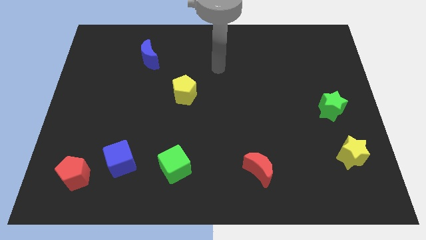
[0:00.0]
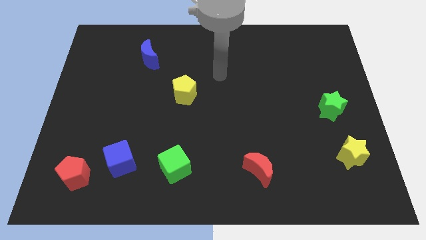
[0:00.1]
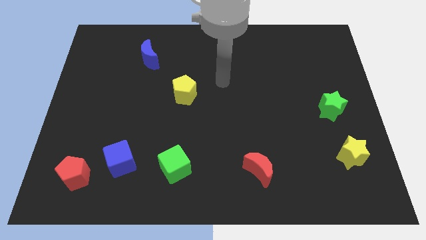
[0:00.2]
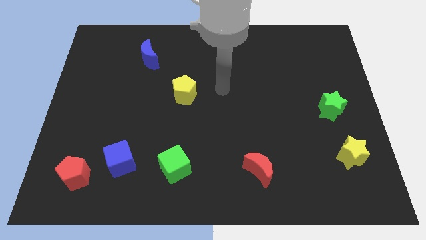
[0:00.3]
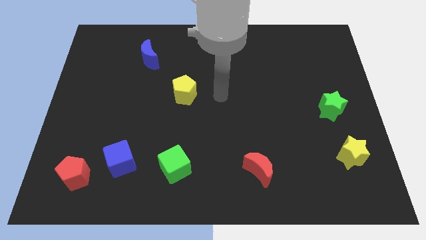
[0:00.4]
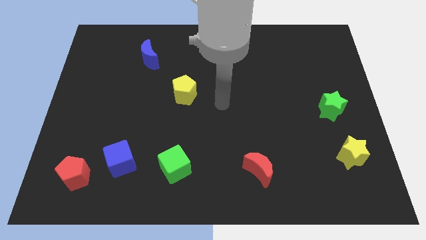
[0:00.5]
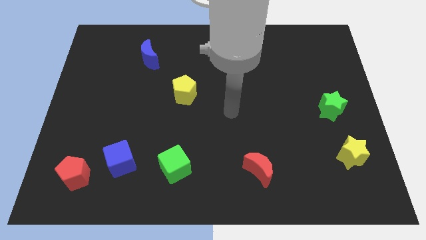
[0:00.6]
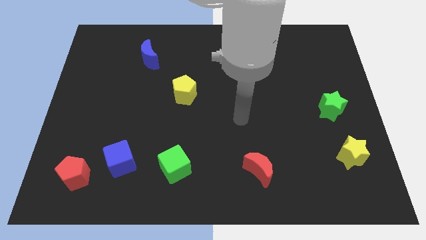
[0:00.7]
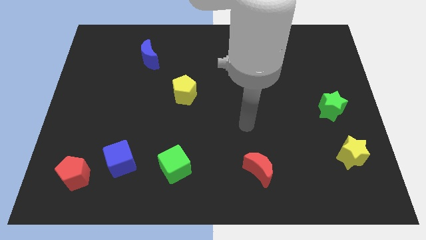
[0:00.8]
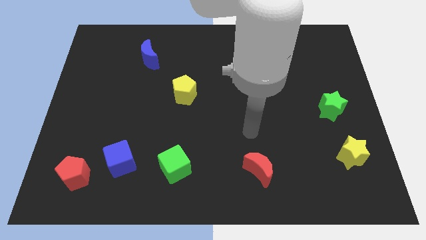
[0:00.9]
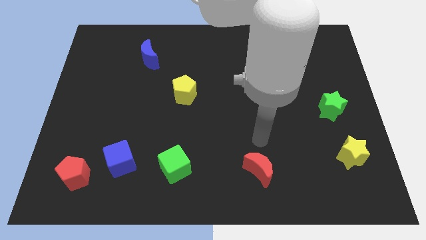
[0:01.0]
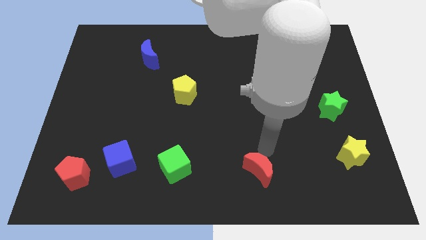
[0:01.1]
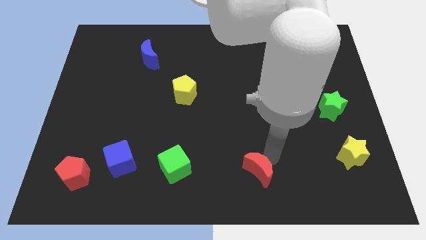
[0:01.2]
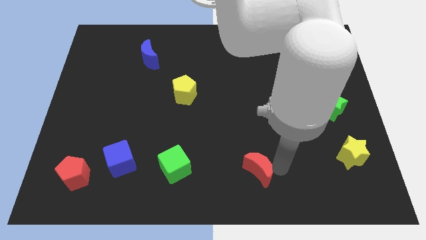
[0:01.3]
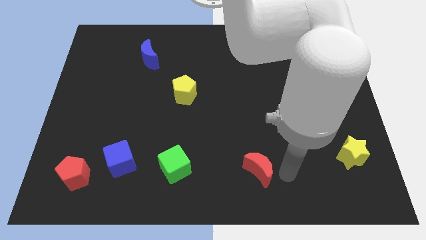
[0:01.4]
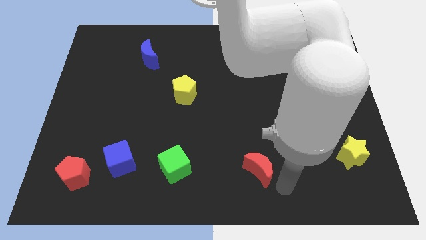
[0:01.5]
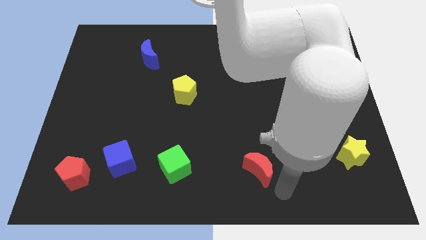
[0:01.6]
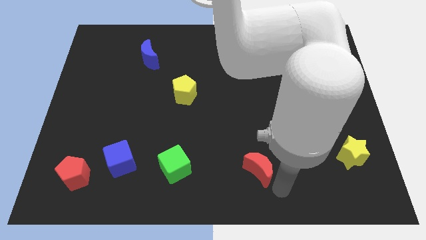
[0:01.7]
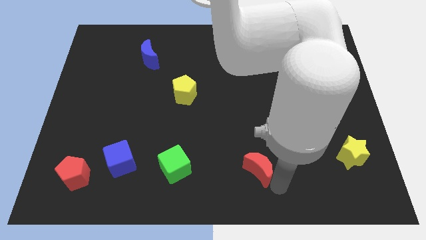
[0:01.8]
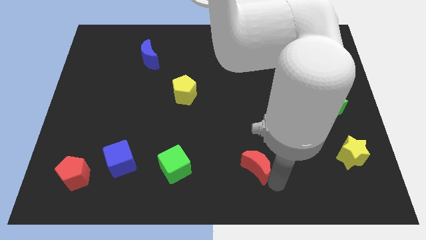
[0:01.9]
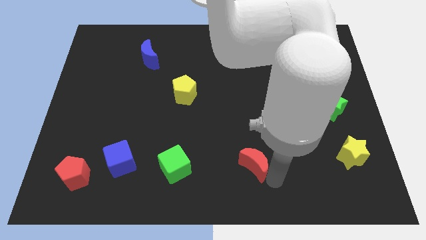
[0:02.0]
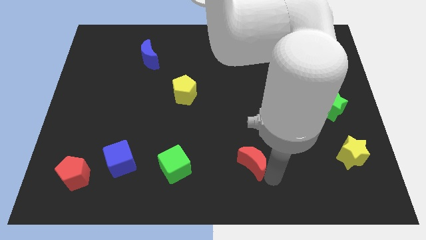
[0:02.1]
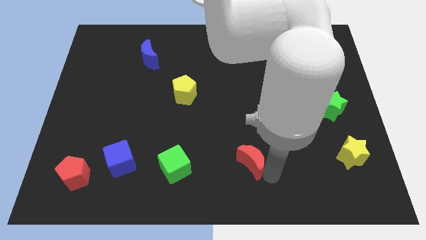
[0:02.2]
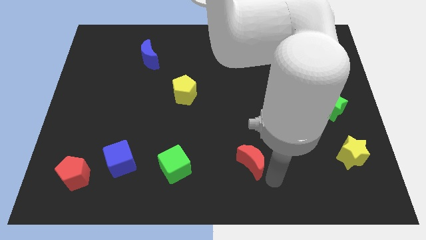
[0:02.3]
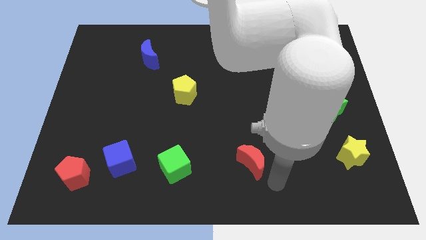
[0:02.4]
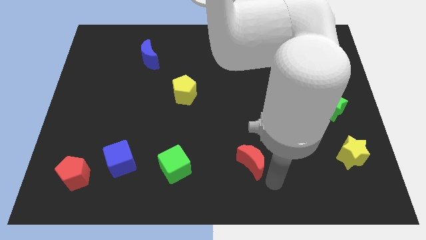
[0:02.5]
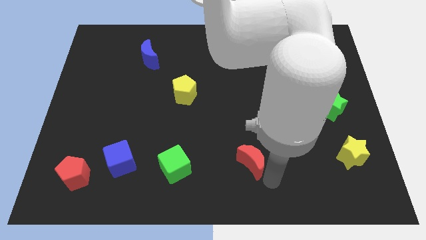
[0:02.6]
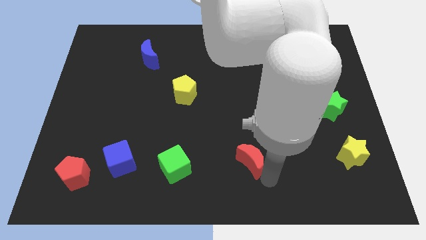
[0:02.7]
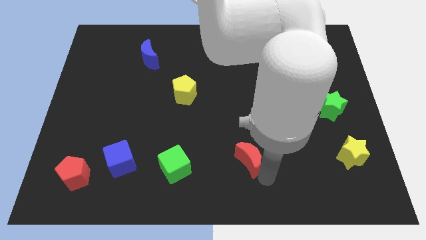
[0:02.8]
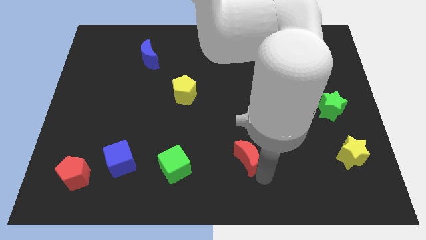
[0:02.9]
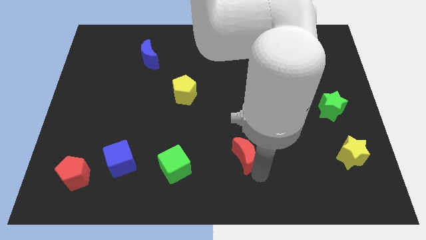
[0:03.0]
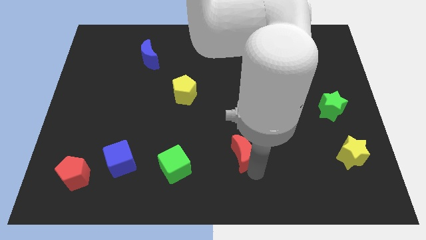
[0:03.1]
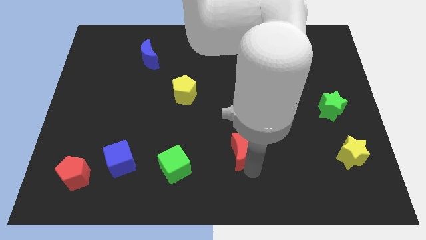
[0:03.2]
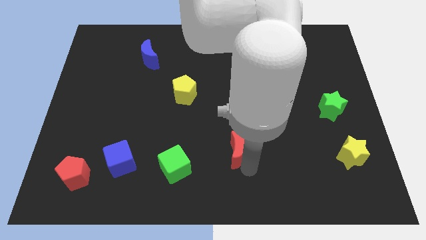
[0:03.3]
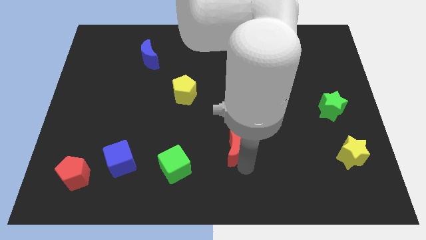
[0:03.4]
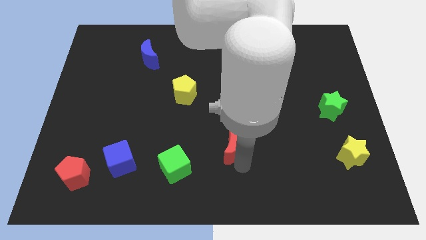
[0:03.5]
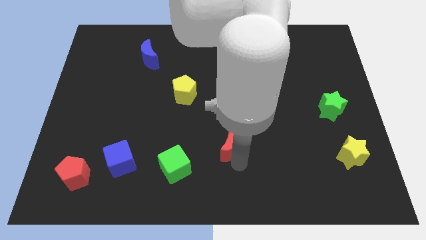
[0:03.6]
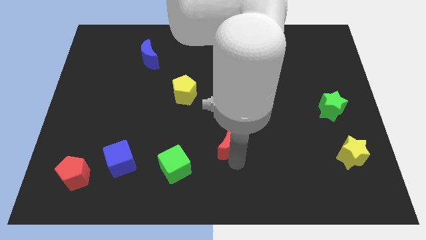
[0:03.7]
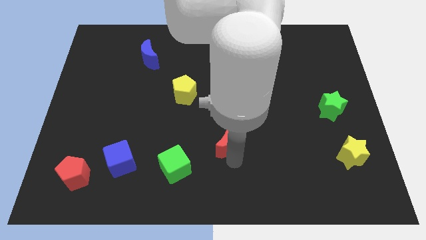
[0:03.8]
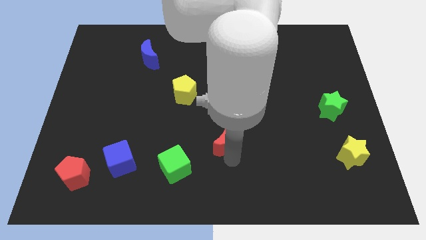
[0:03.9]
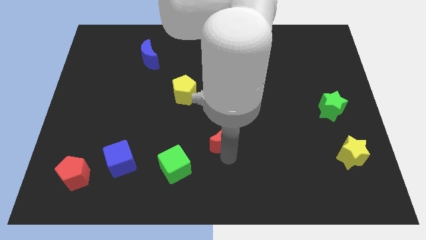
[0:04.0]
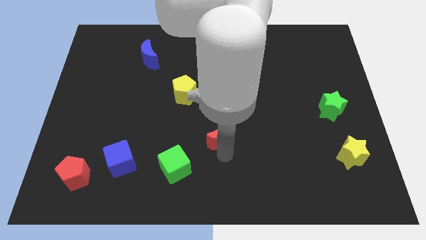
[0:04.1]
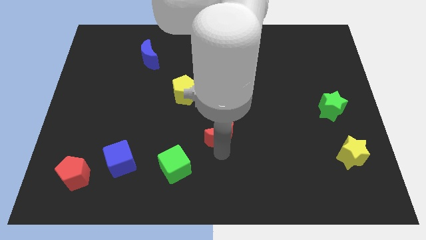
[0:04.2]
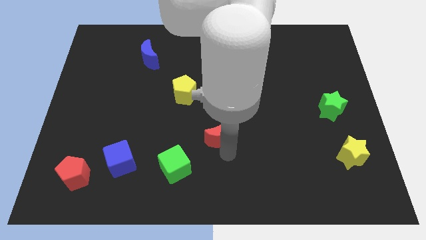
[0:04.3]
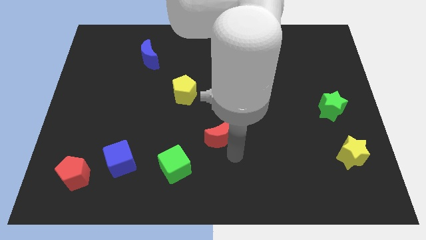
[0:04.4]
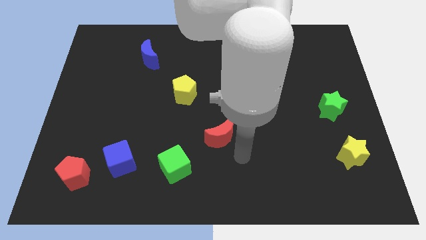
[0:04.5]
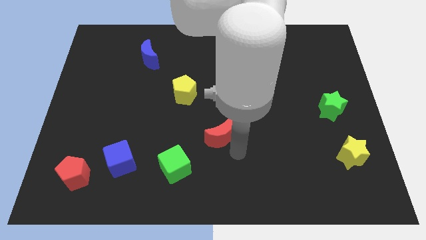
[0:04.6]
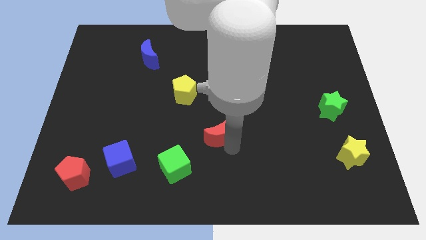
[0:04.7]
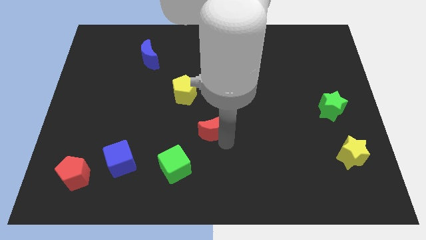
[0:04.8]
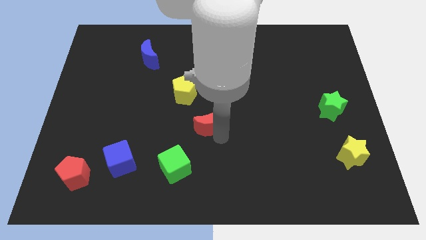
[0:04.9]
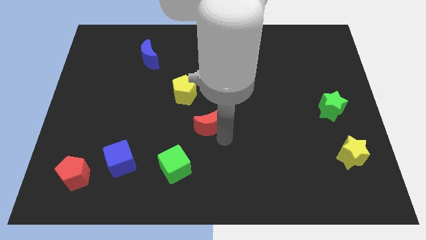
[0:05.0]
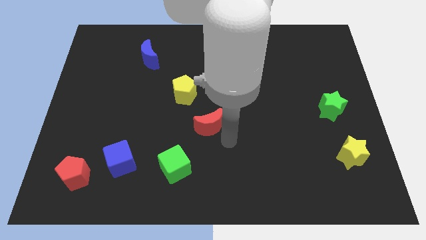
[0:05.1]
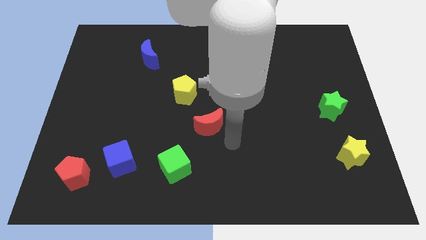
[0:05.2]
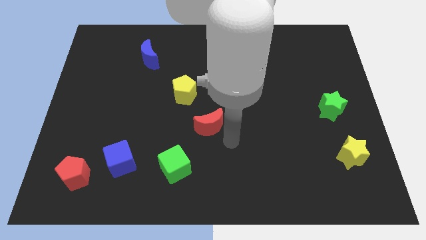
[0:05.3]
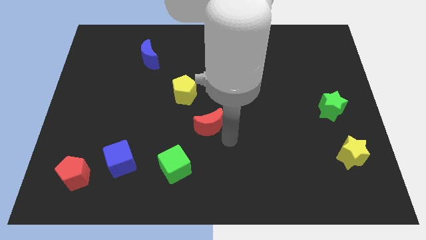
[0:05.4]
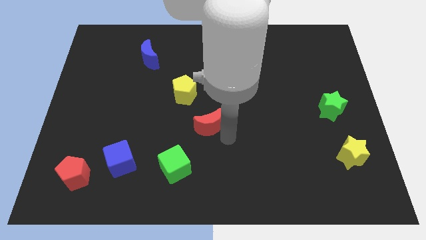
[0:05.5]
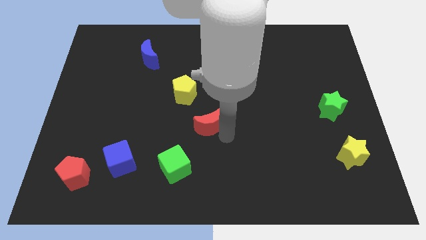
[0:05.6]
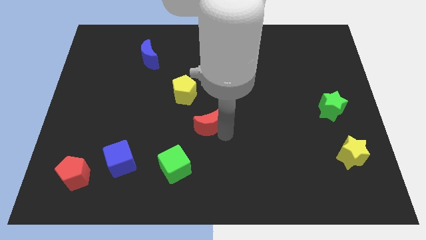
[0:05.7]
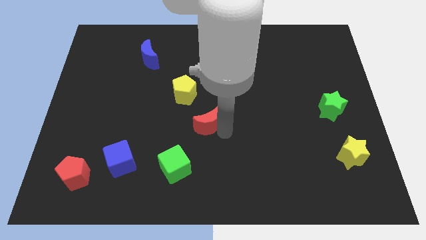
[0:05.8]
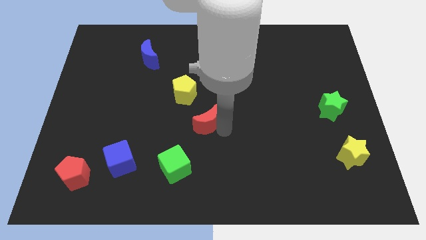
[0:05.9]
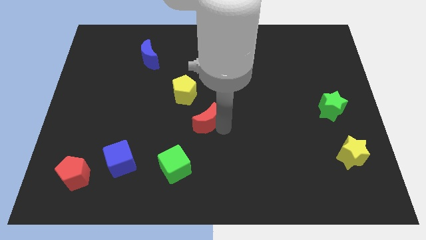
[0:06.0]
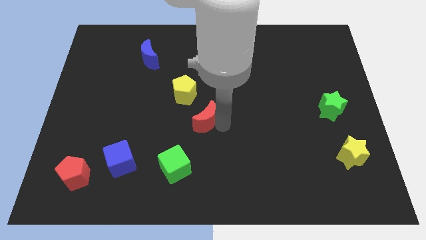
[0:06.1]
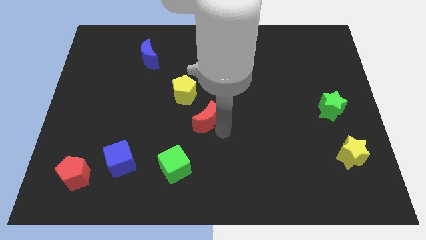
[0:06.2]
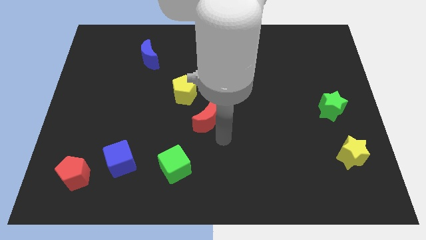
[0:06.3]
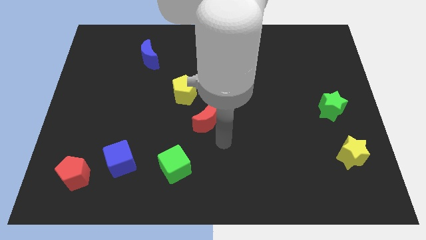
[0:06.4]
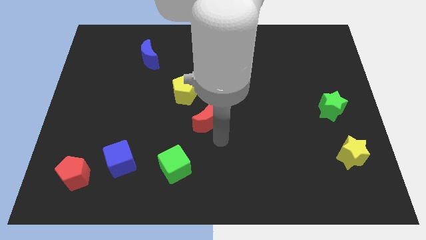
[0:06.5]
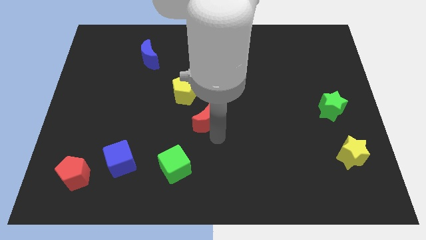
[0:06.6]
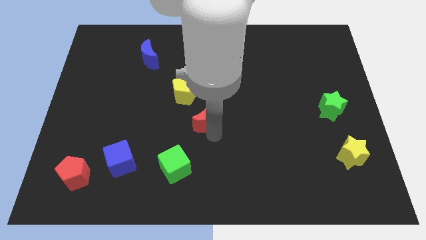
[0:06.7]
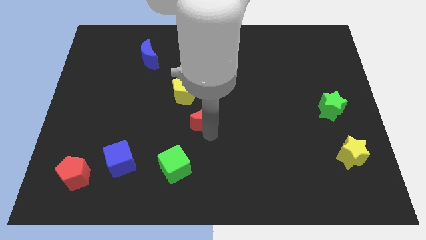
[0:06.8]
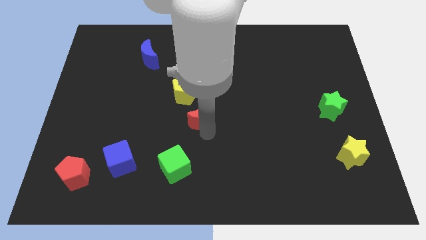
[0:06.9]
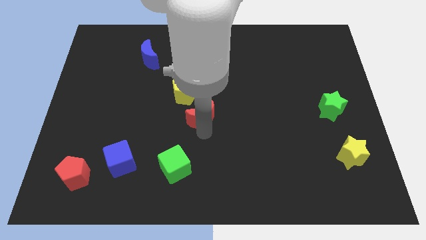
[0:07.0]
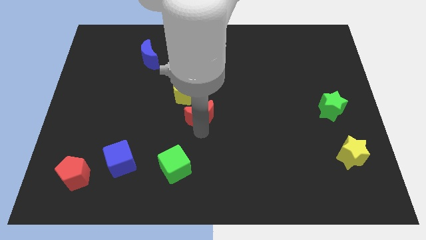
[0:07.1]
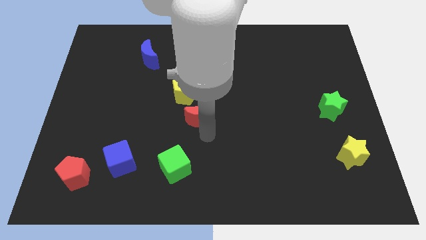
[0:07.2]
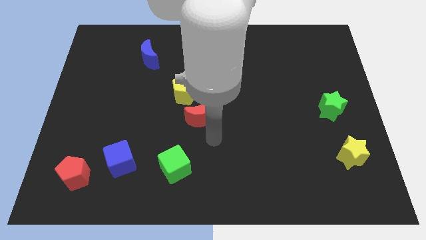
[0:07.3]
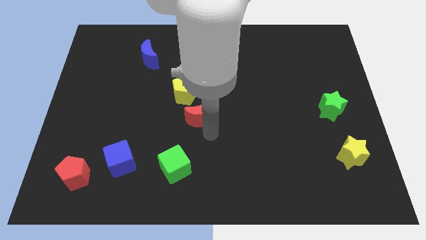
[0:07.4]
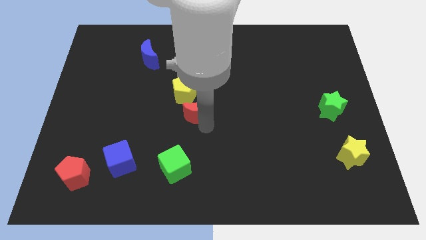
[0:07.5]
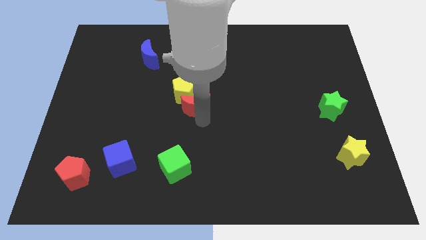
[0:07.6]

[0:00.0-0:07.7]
put the red moon to the yellow pentagon
